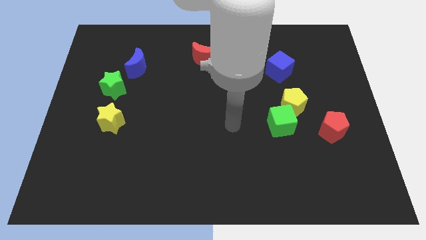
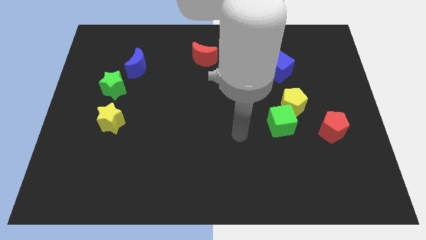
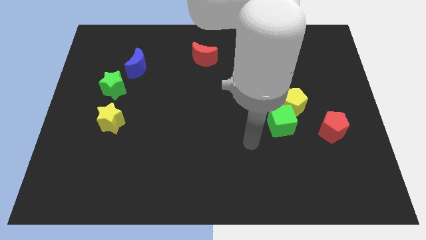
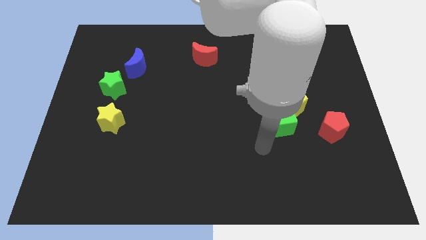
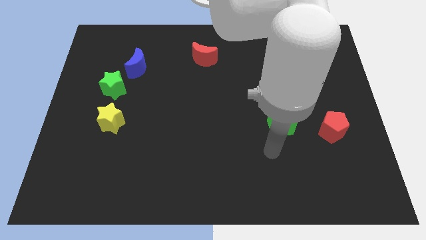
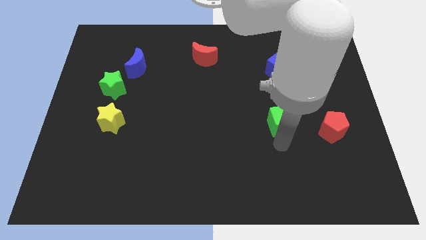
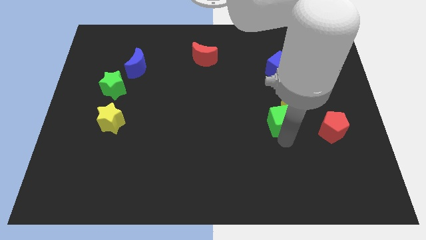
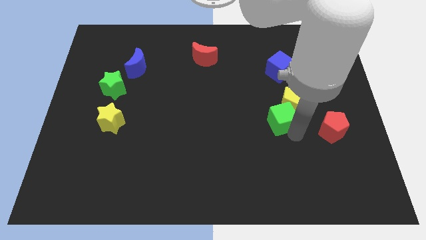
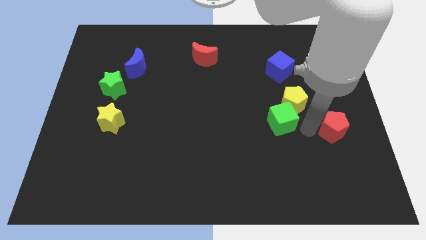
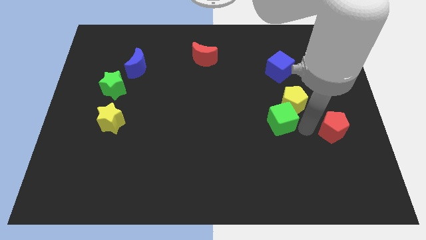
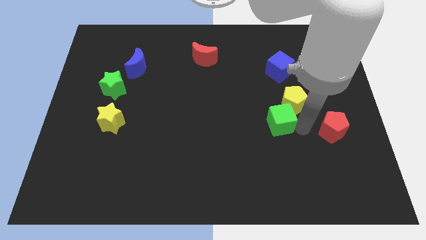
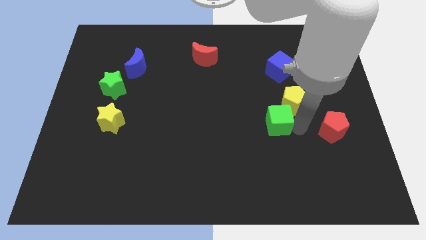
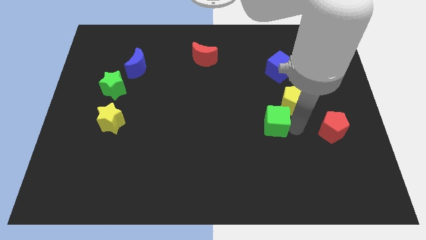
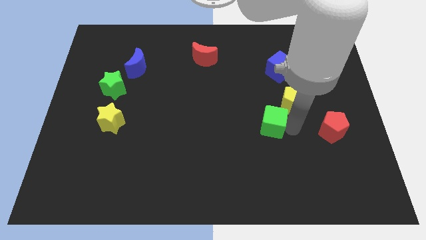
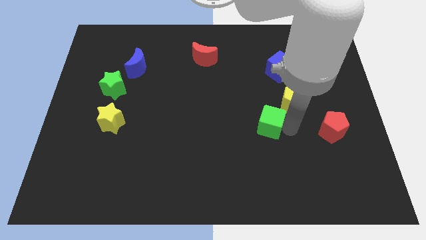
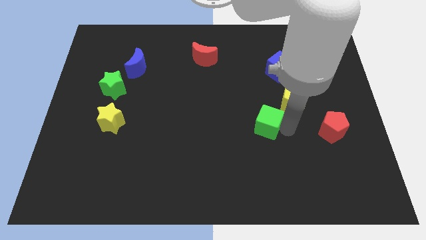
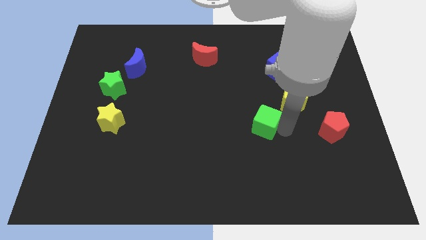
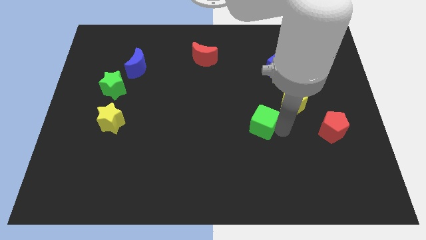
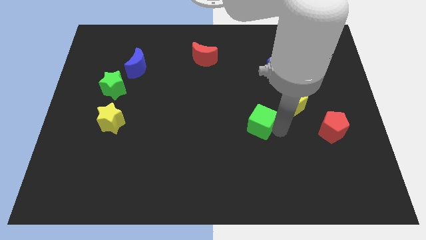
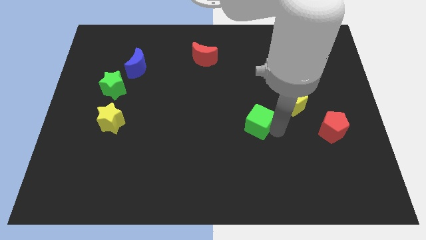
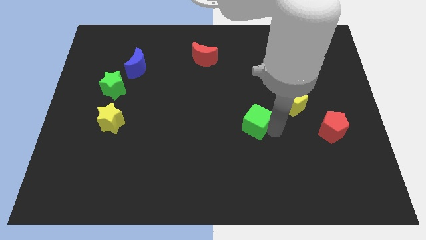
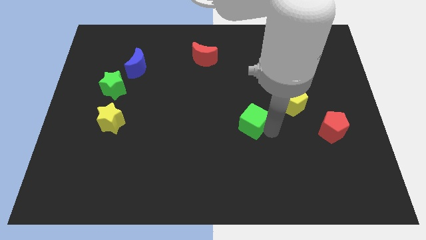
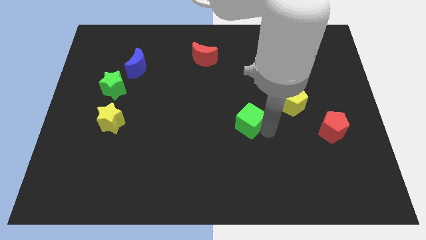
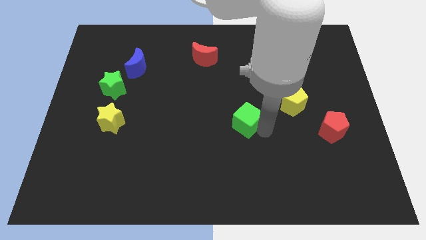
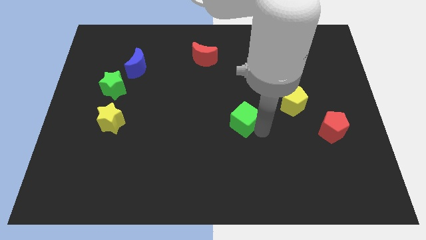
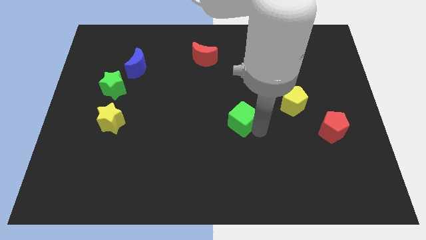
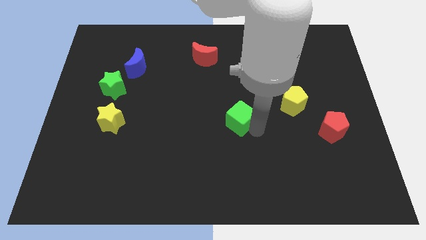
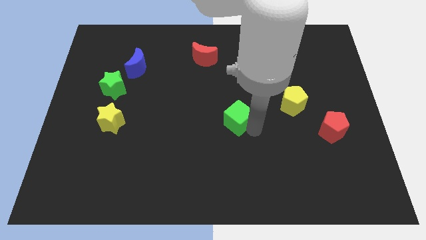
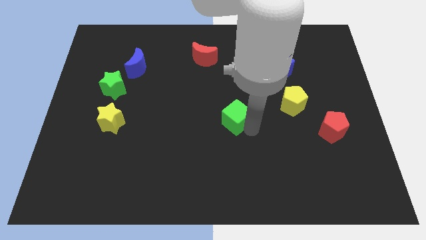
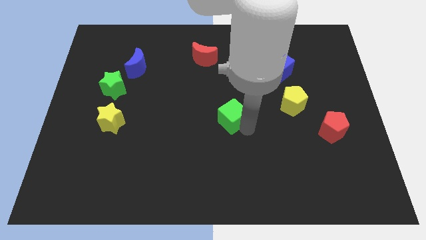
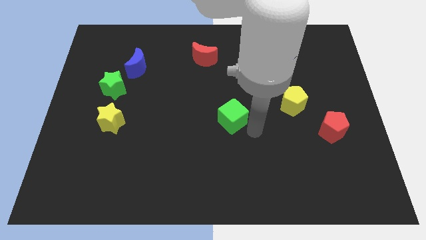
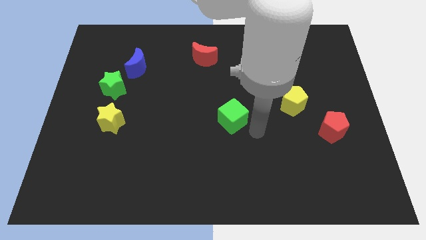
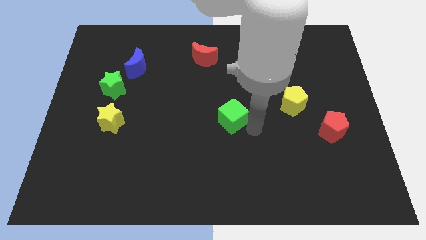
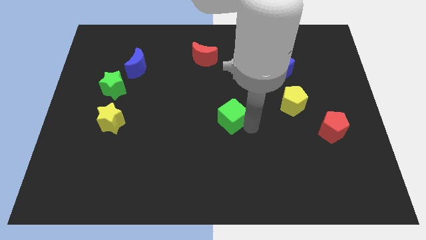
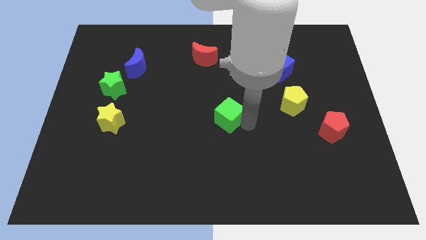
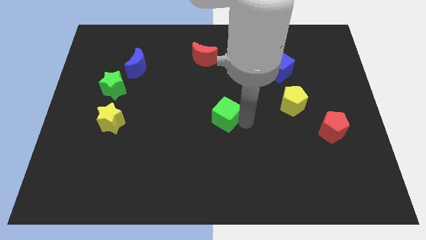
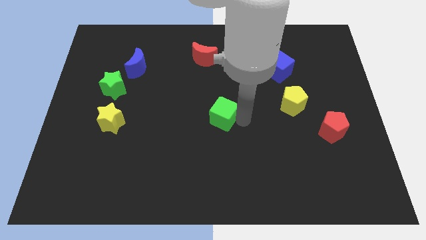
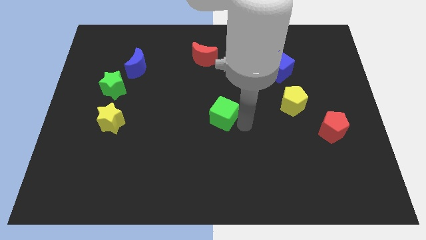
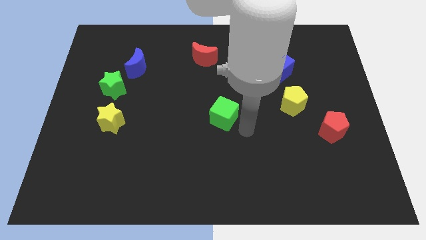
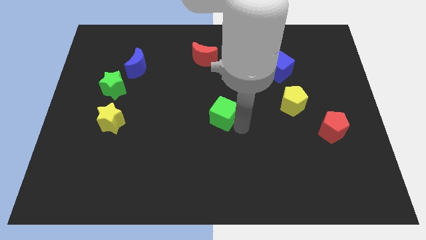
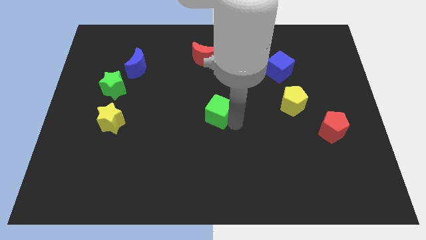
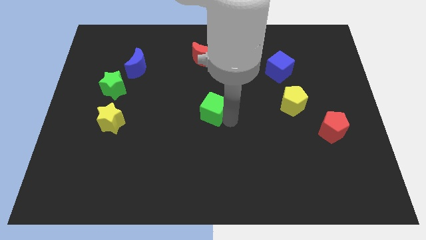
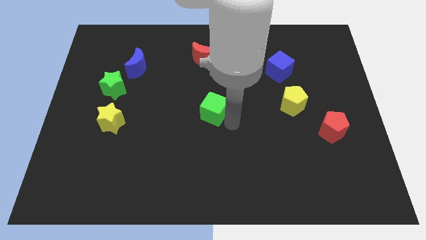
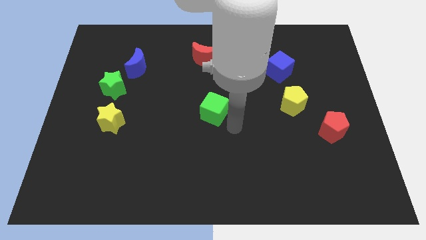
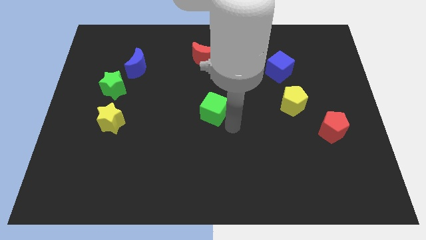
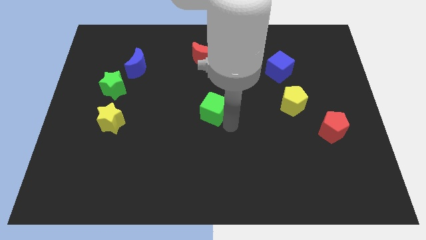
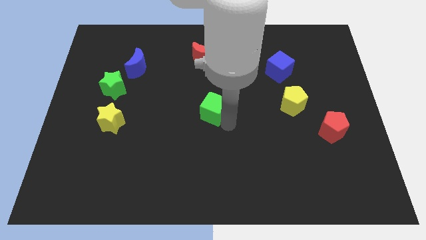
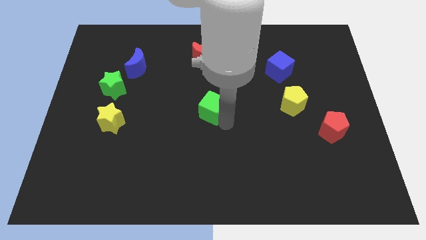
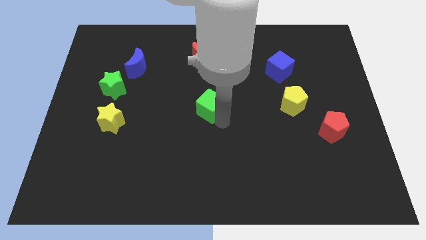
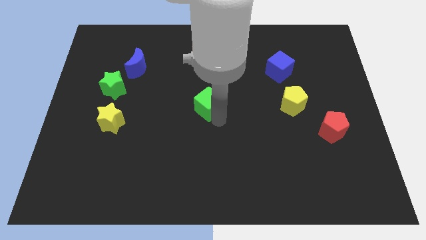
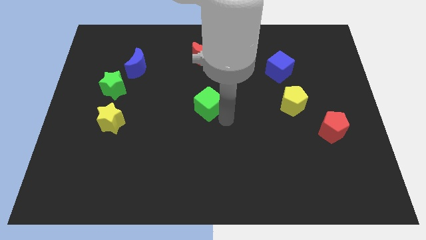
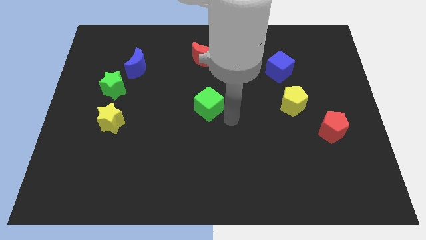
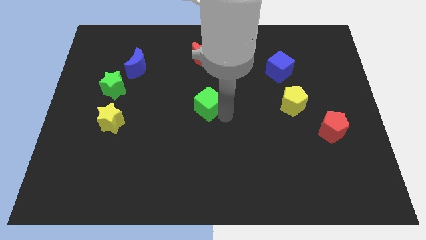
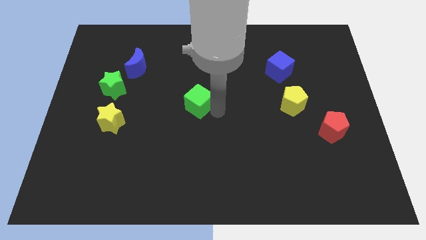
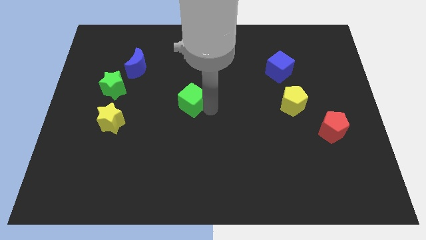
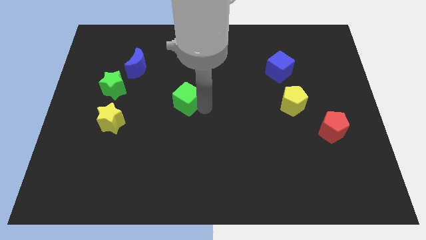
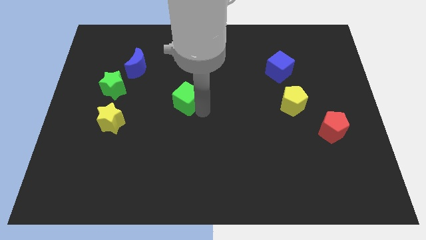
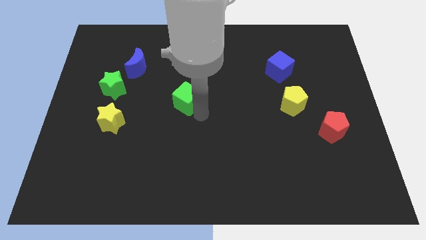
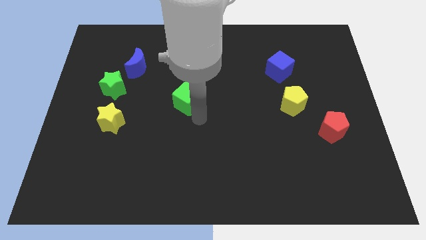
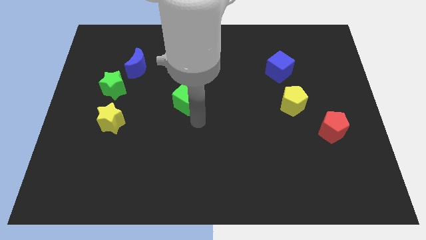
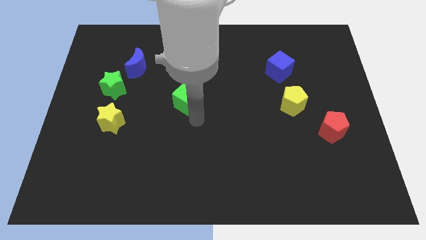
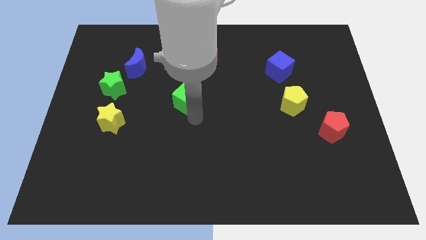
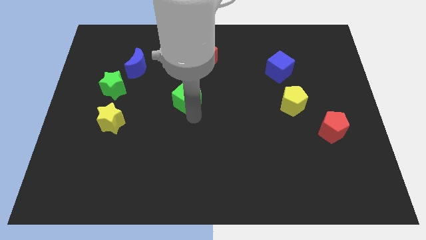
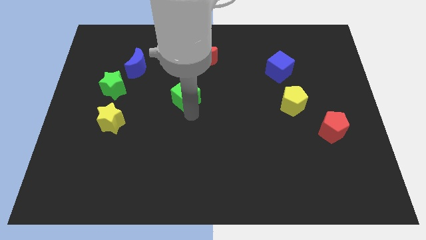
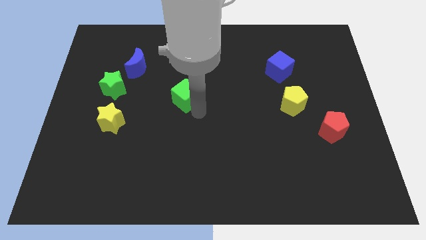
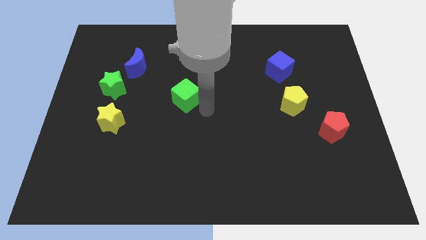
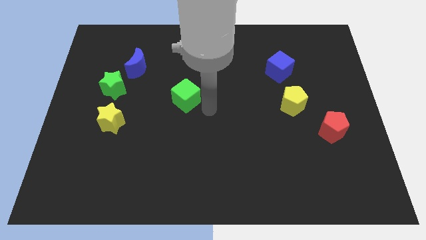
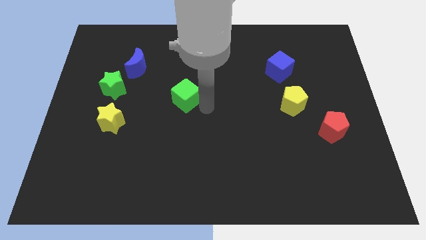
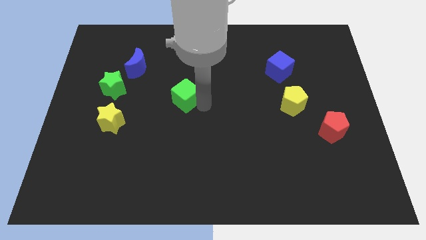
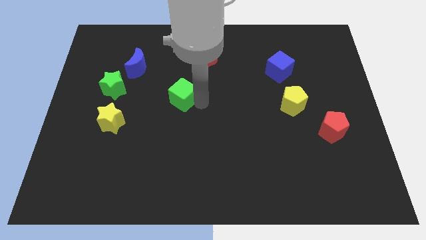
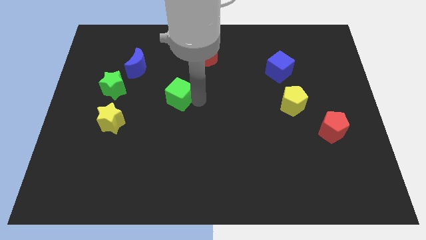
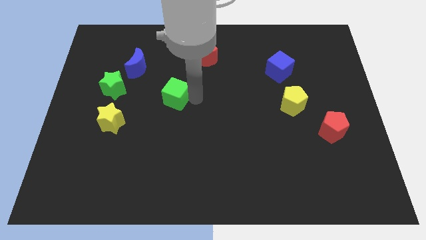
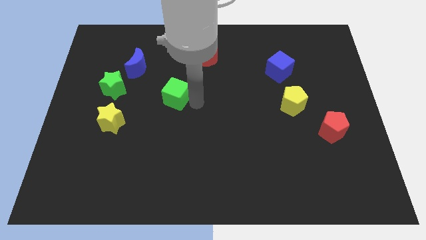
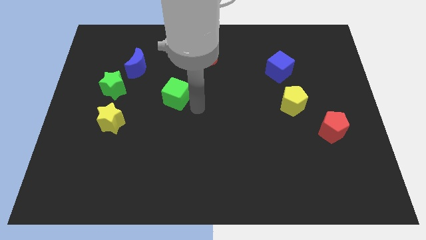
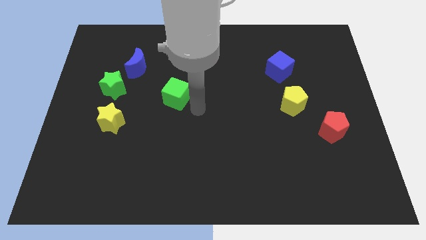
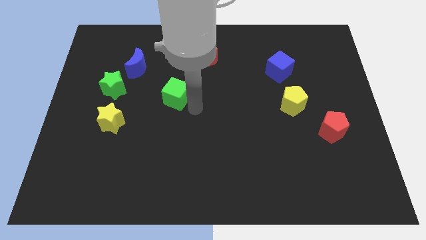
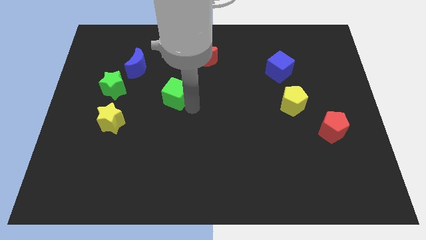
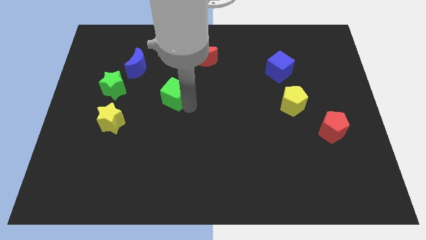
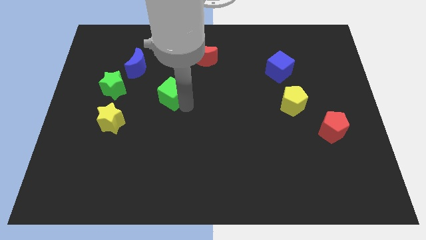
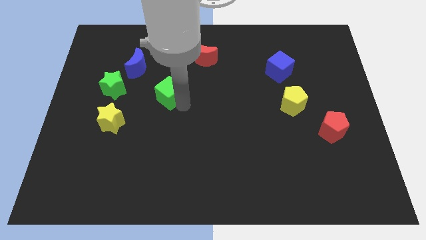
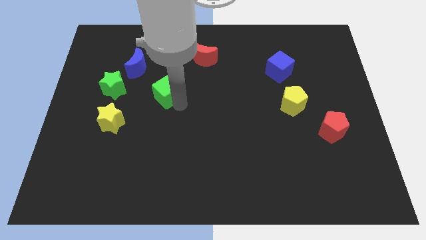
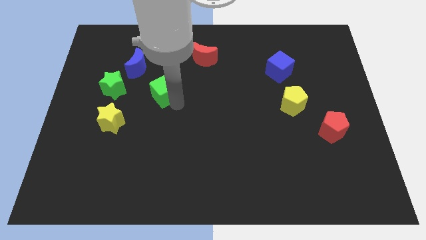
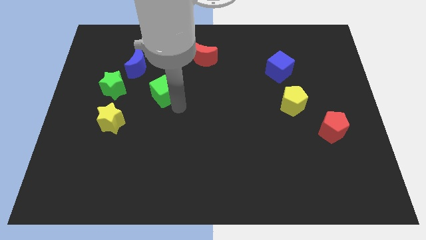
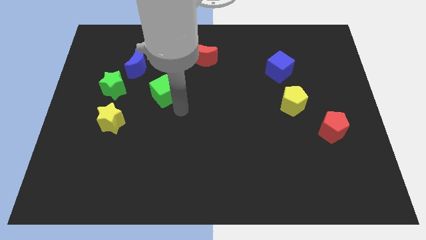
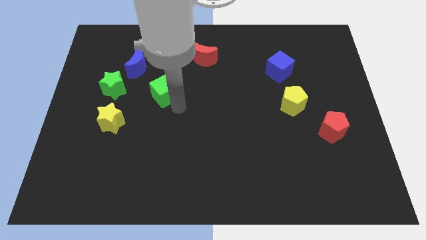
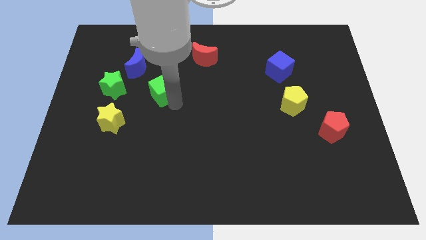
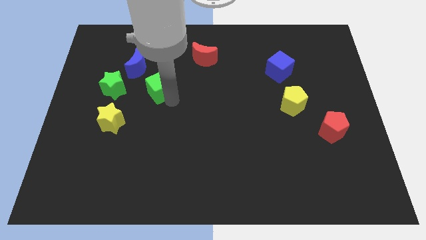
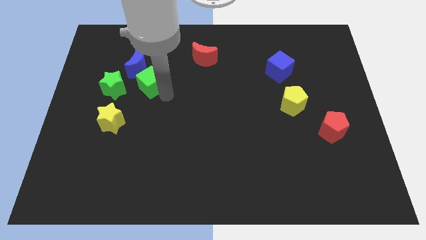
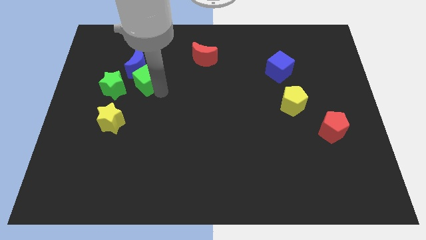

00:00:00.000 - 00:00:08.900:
slide the green cube to the blue moon
